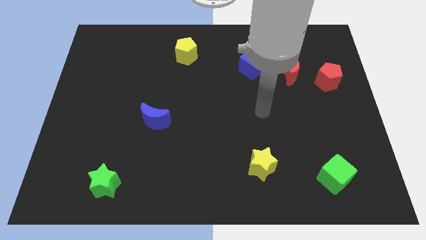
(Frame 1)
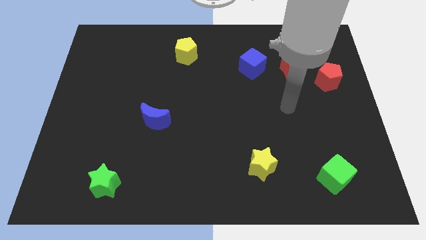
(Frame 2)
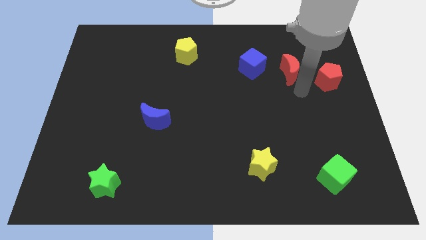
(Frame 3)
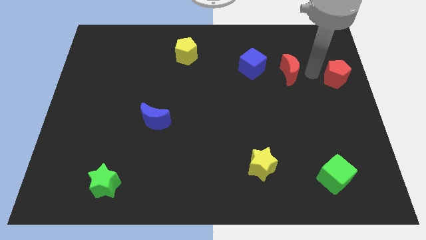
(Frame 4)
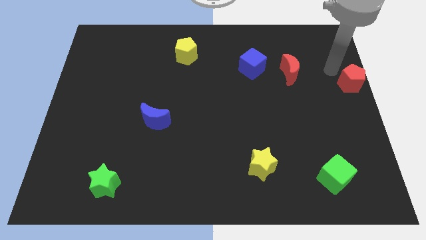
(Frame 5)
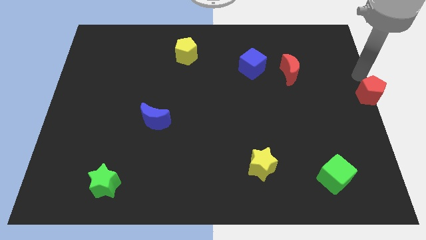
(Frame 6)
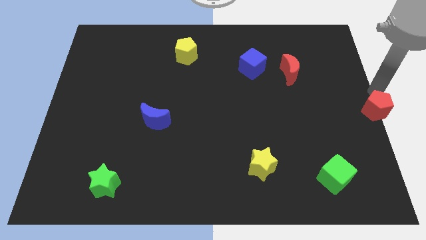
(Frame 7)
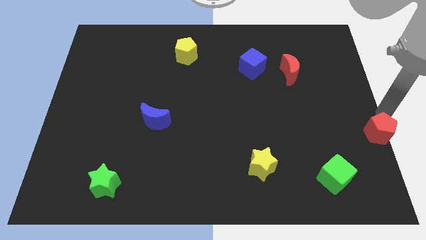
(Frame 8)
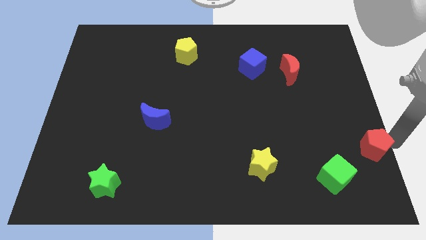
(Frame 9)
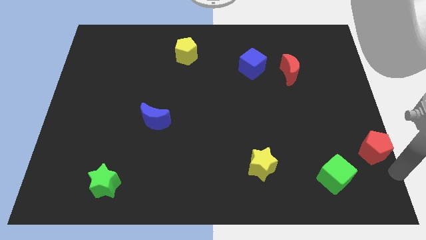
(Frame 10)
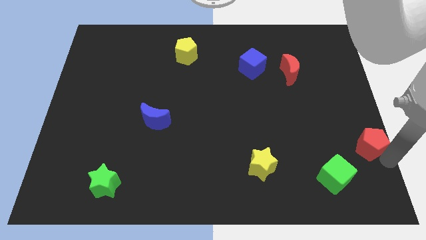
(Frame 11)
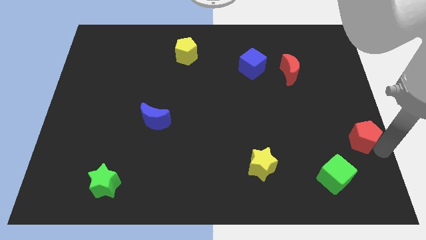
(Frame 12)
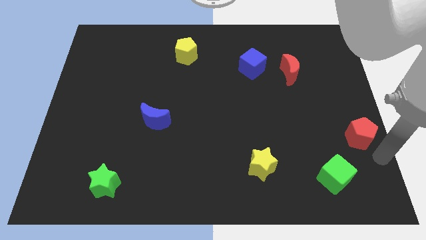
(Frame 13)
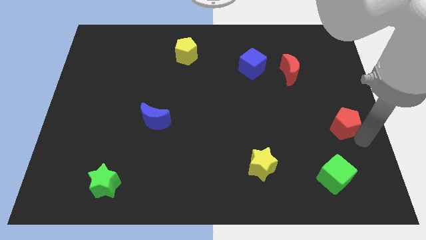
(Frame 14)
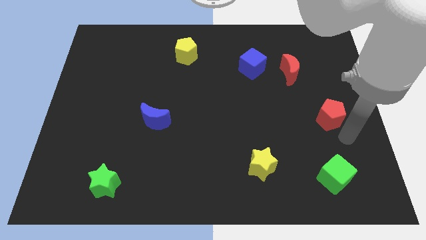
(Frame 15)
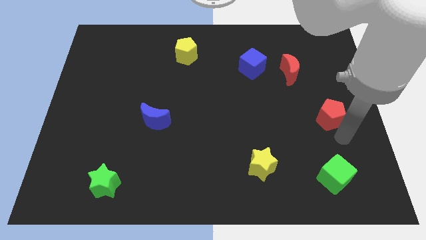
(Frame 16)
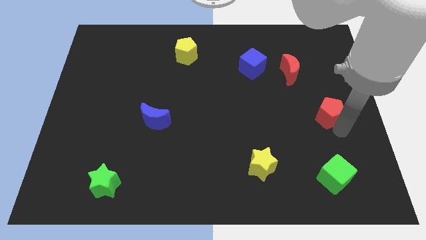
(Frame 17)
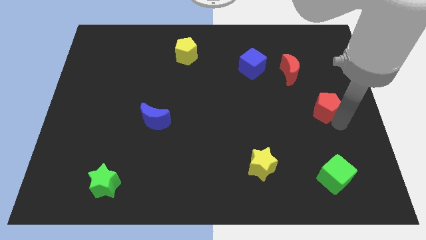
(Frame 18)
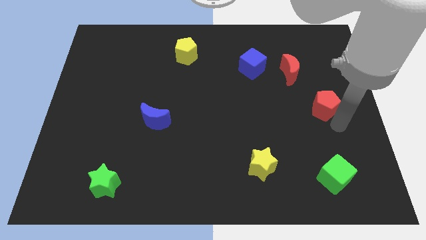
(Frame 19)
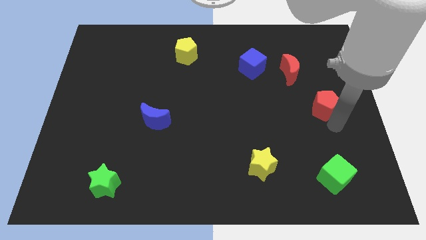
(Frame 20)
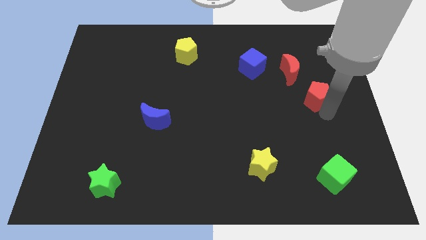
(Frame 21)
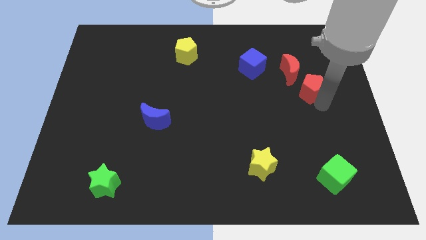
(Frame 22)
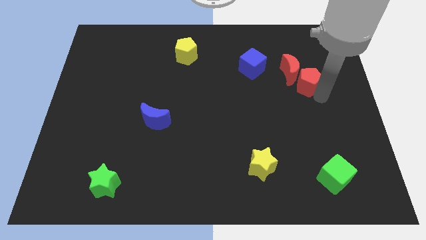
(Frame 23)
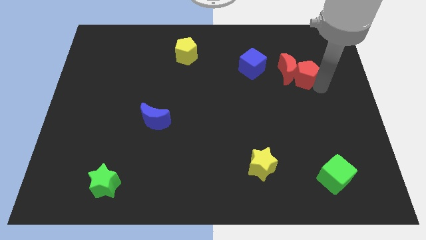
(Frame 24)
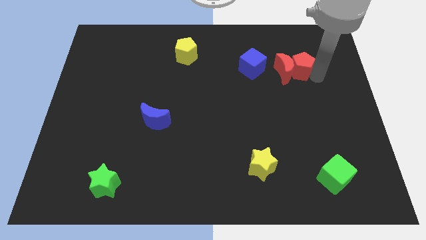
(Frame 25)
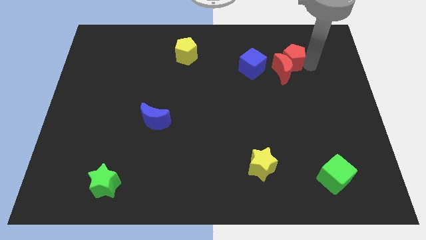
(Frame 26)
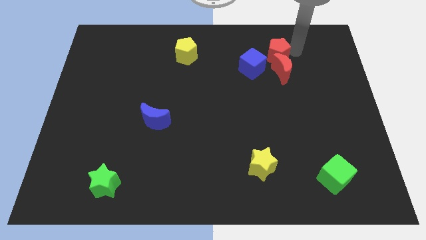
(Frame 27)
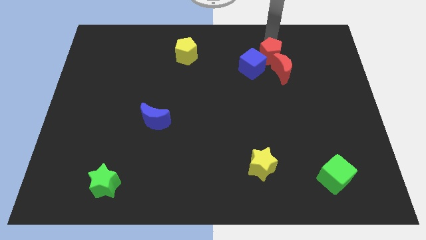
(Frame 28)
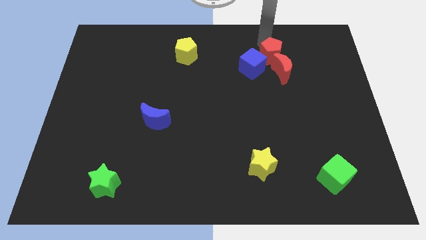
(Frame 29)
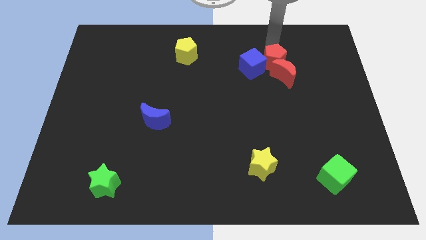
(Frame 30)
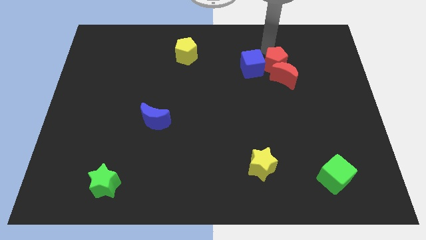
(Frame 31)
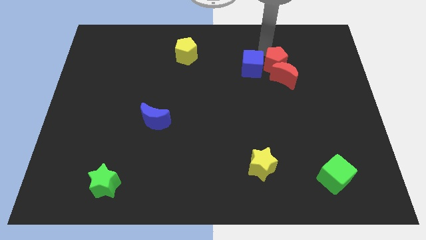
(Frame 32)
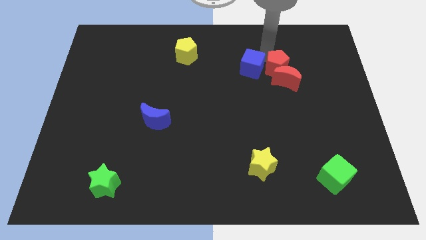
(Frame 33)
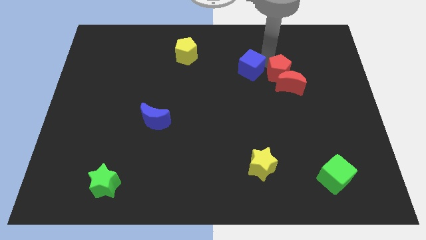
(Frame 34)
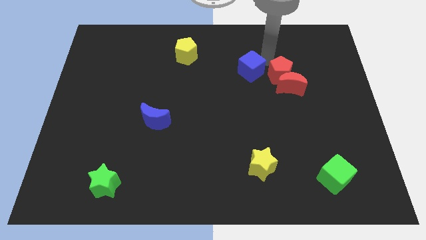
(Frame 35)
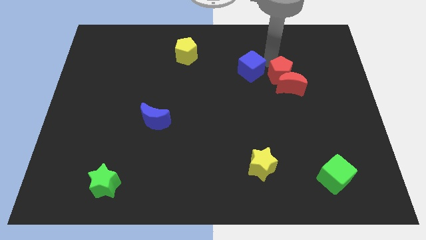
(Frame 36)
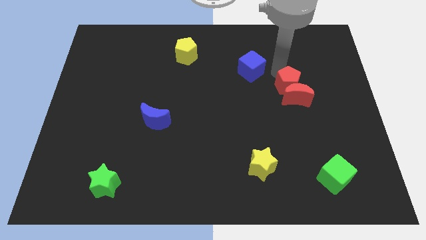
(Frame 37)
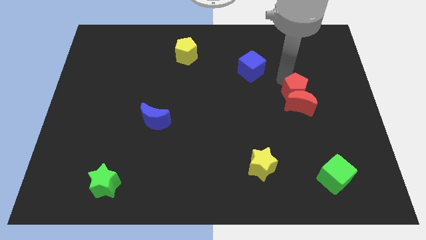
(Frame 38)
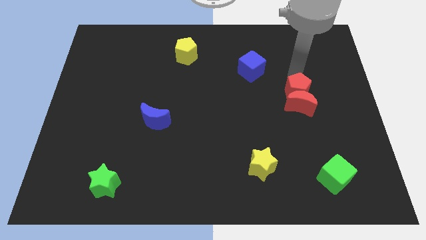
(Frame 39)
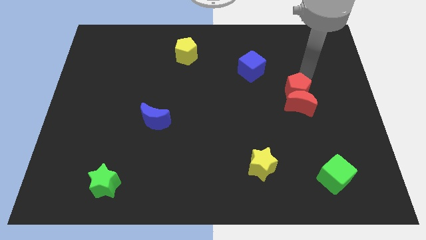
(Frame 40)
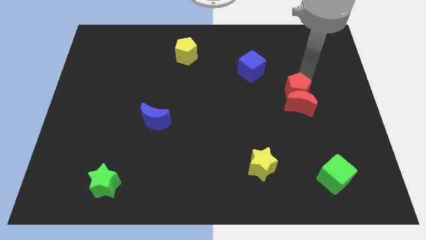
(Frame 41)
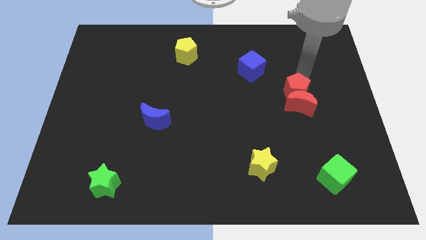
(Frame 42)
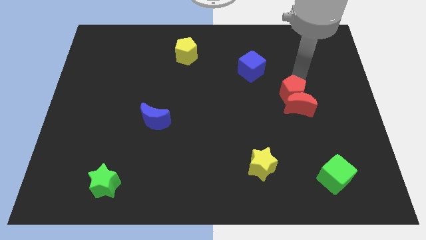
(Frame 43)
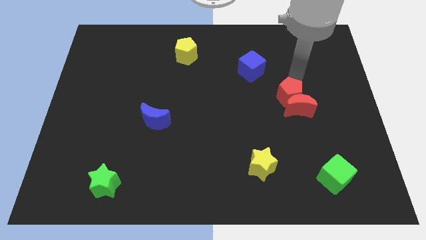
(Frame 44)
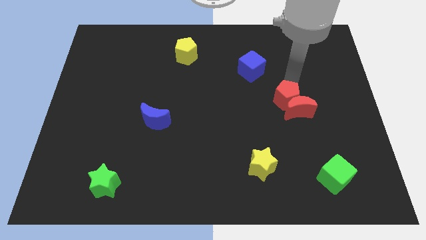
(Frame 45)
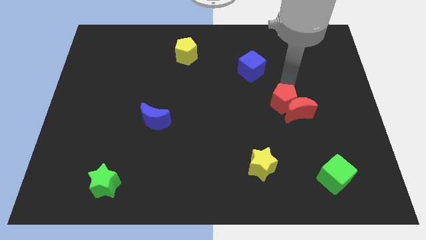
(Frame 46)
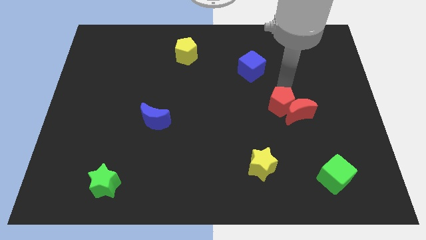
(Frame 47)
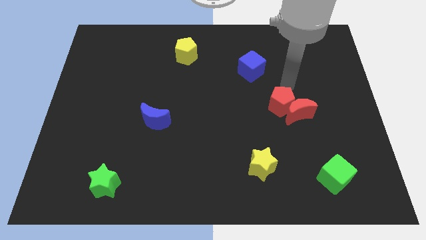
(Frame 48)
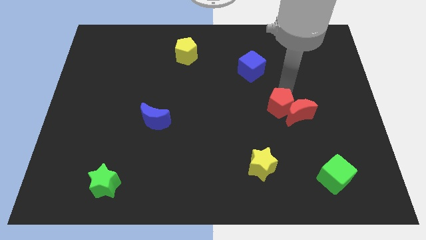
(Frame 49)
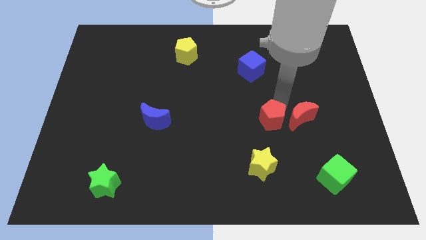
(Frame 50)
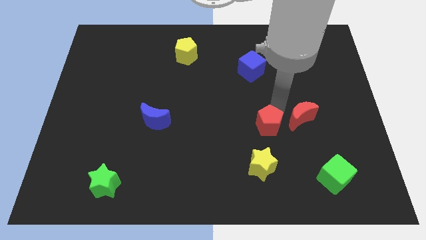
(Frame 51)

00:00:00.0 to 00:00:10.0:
push the red pentagon diagonally downwards and left

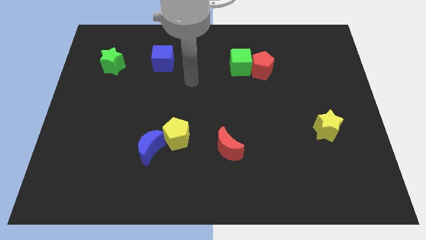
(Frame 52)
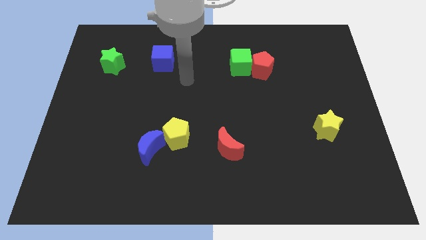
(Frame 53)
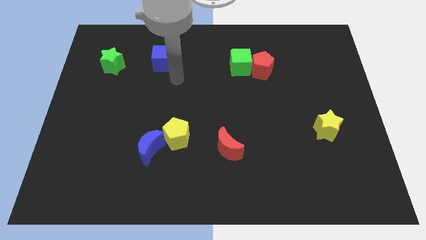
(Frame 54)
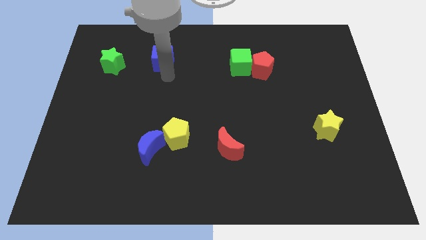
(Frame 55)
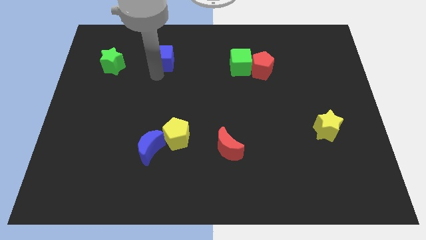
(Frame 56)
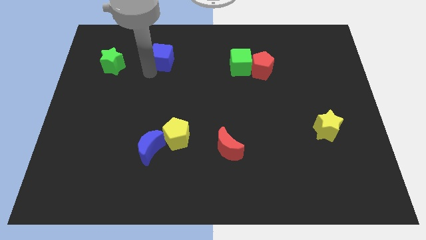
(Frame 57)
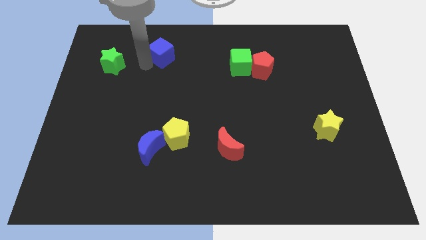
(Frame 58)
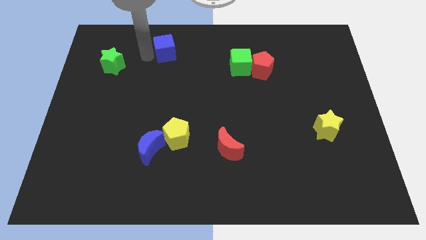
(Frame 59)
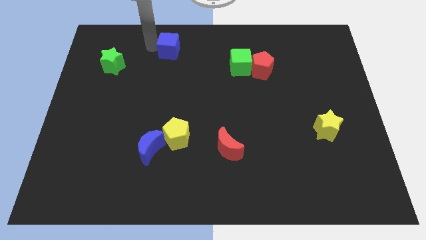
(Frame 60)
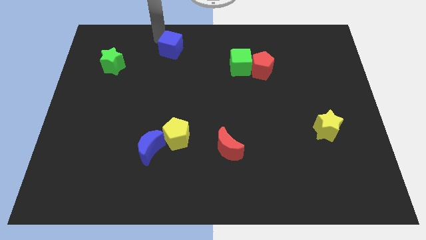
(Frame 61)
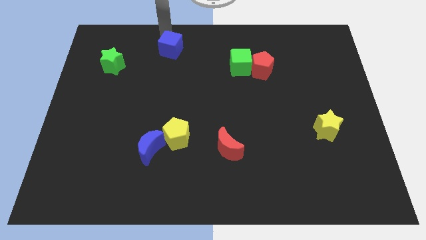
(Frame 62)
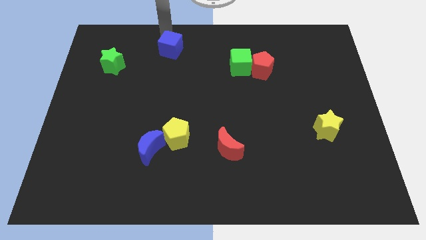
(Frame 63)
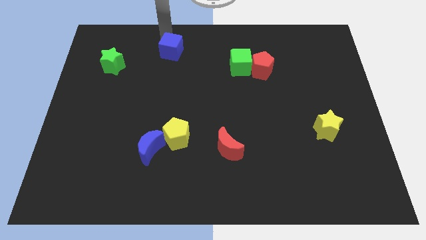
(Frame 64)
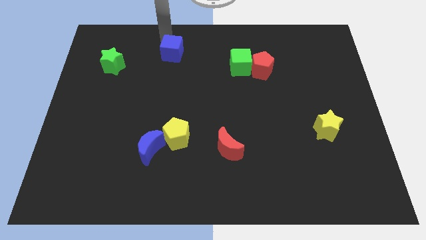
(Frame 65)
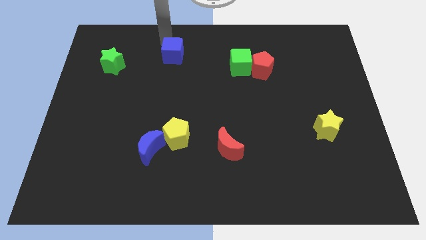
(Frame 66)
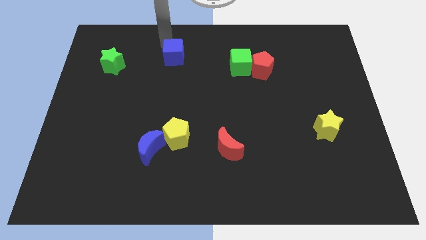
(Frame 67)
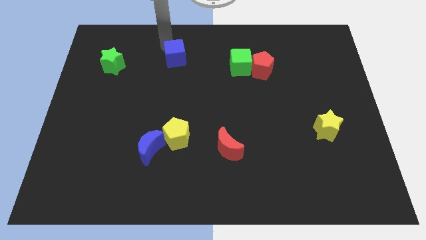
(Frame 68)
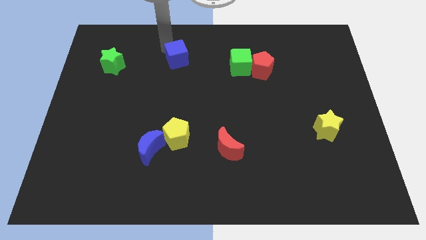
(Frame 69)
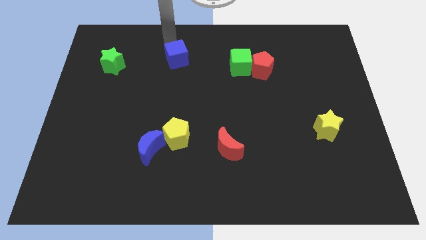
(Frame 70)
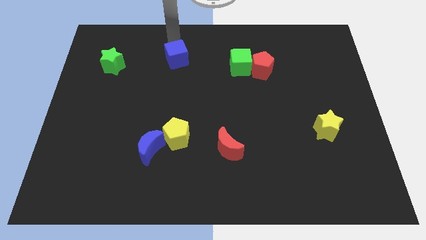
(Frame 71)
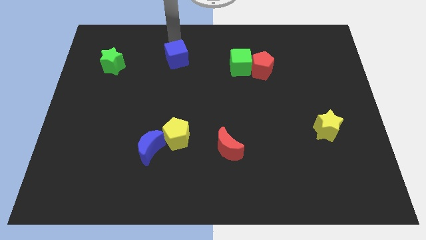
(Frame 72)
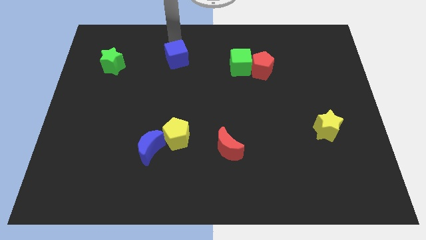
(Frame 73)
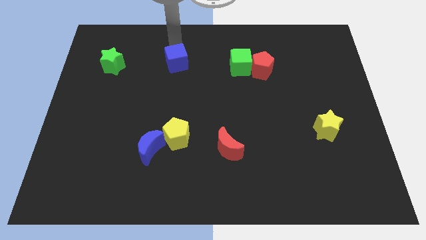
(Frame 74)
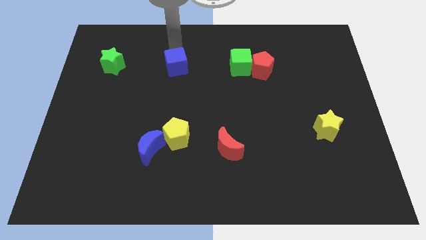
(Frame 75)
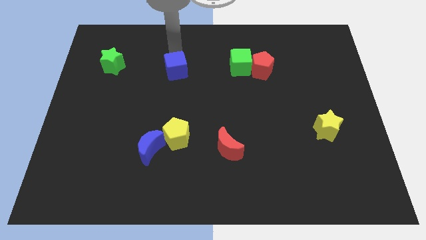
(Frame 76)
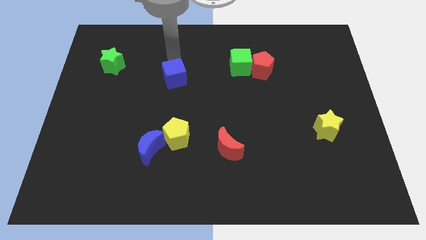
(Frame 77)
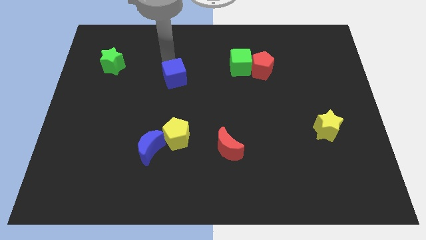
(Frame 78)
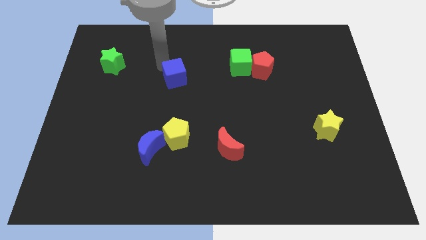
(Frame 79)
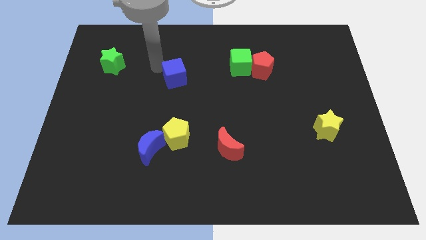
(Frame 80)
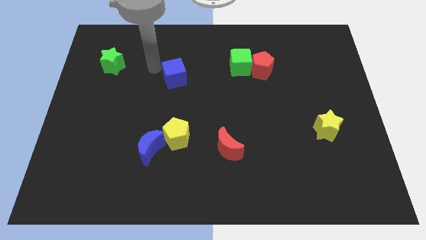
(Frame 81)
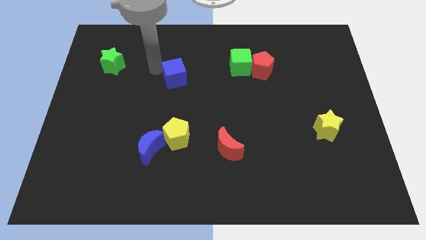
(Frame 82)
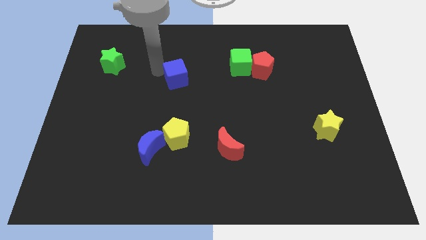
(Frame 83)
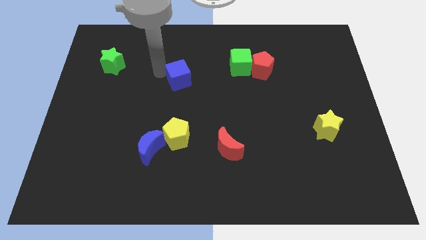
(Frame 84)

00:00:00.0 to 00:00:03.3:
move the blue cube a bit diagonally down and right
